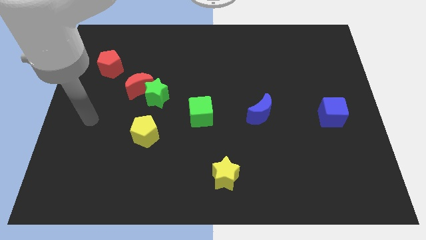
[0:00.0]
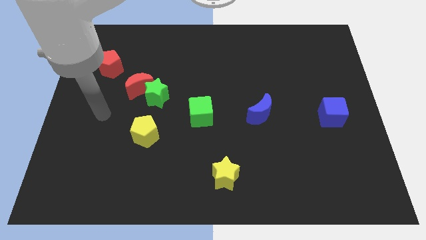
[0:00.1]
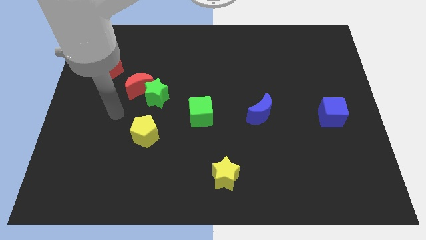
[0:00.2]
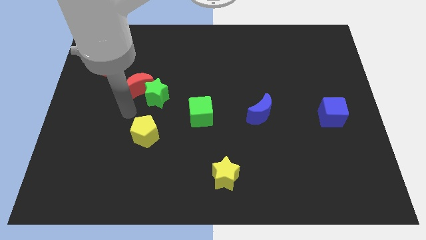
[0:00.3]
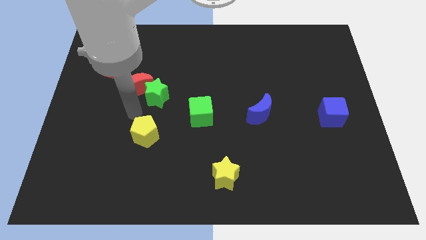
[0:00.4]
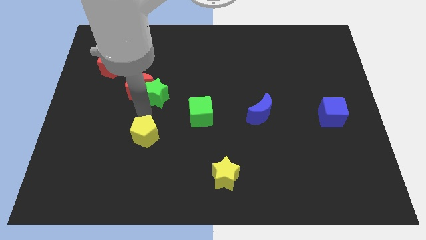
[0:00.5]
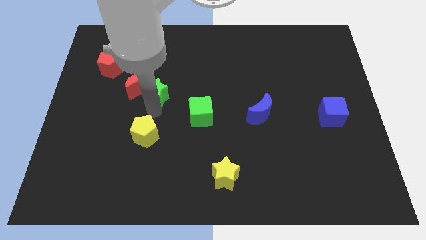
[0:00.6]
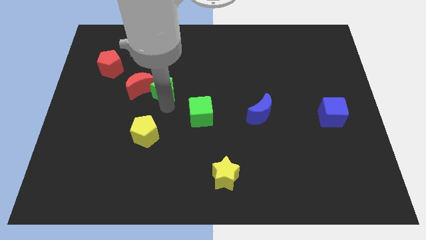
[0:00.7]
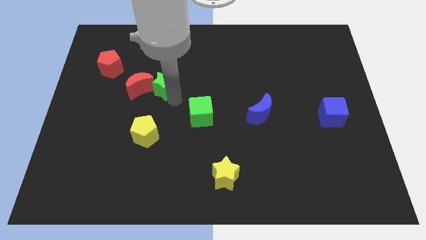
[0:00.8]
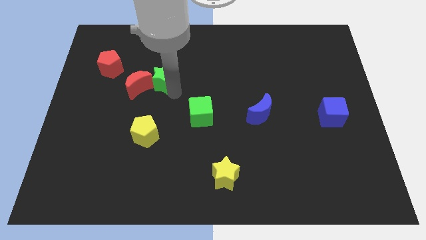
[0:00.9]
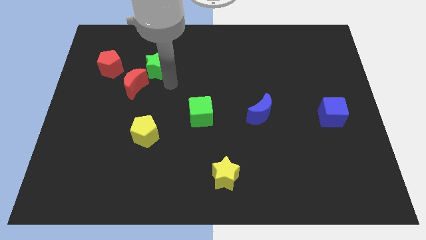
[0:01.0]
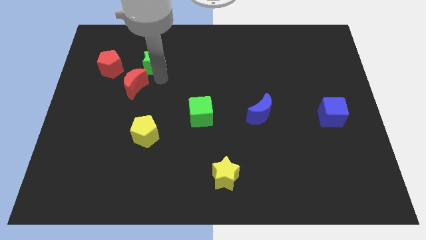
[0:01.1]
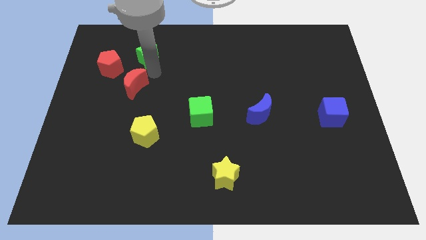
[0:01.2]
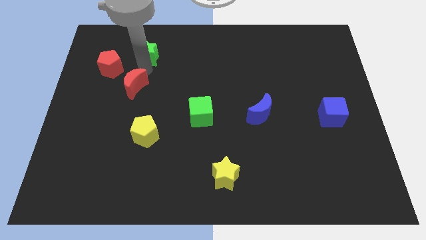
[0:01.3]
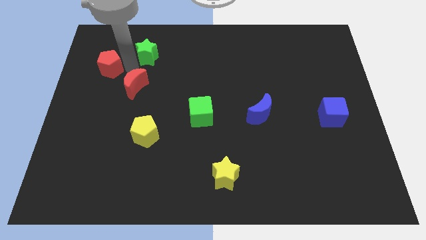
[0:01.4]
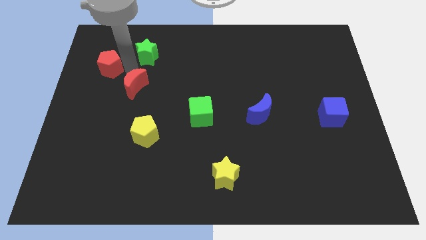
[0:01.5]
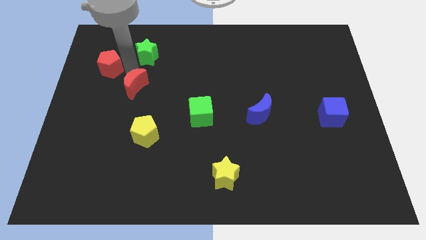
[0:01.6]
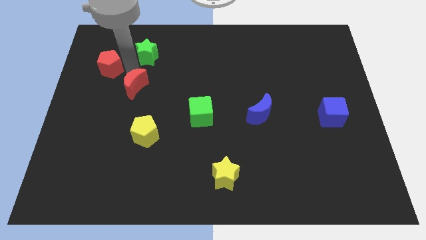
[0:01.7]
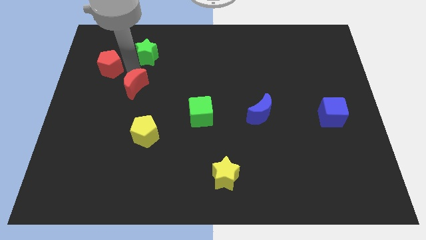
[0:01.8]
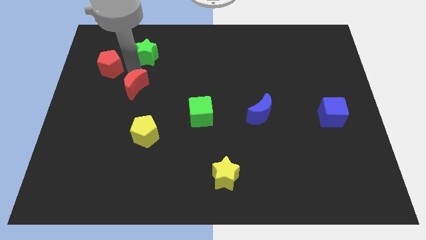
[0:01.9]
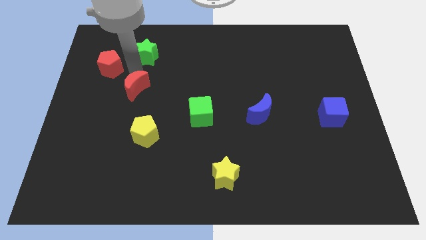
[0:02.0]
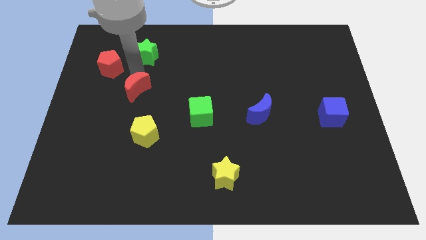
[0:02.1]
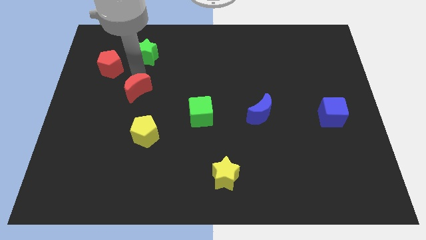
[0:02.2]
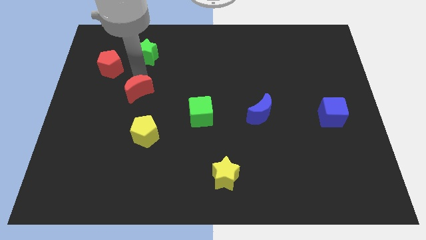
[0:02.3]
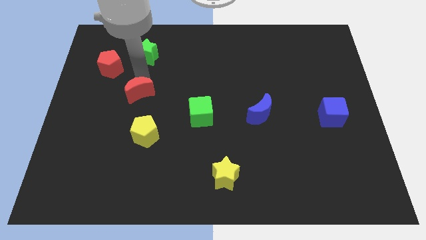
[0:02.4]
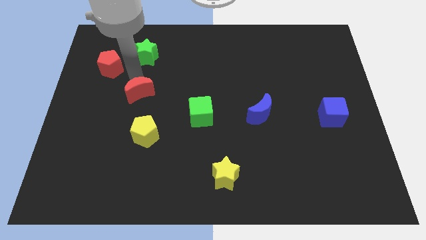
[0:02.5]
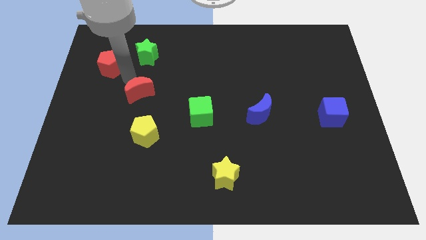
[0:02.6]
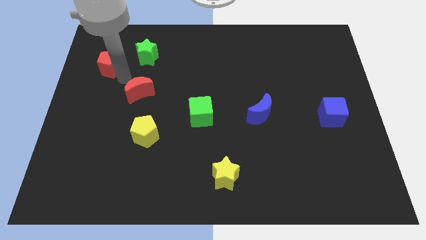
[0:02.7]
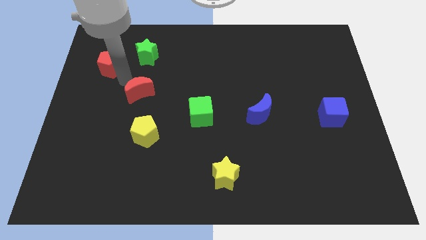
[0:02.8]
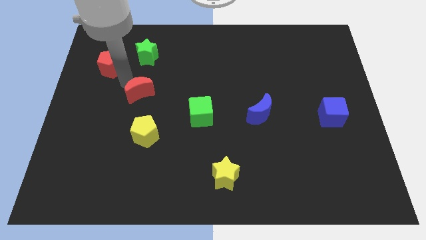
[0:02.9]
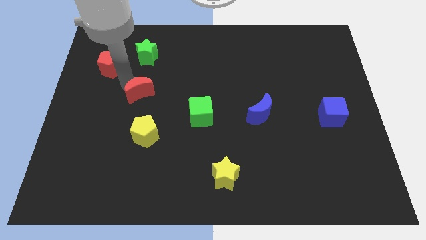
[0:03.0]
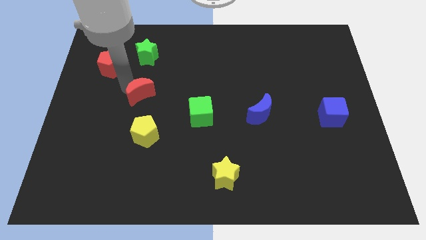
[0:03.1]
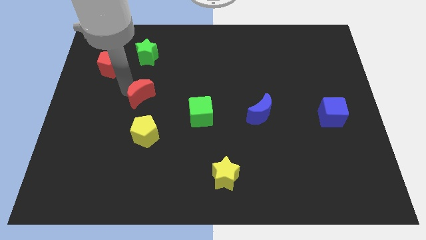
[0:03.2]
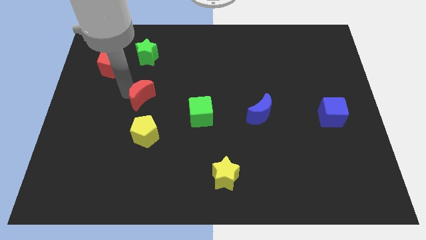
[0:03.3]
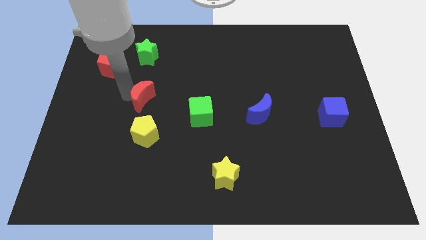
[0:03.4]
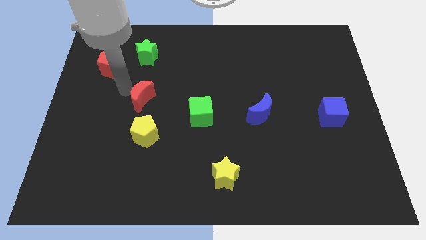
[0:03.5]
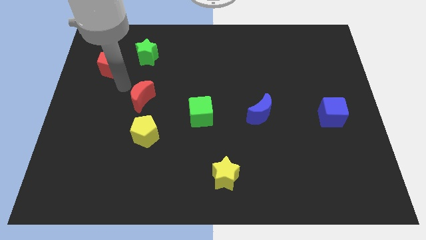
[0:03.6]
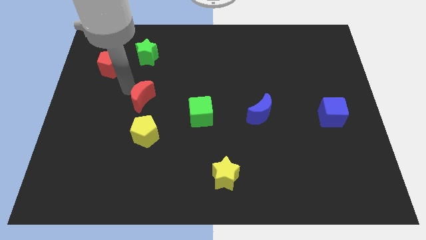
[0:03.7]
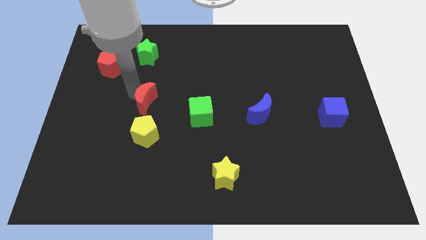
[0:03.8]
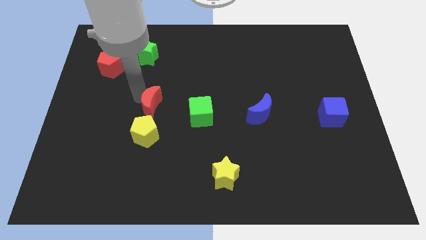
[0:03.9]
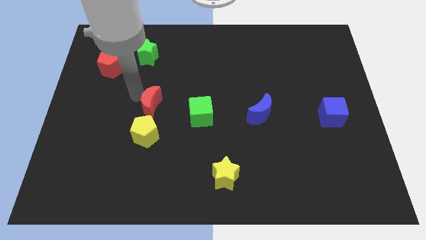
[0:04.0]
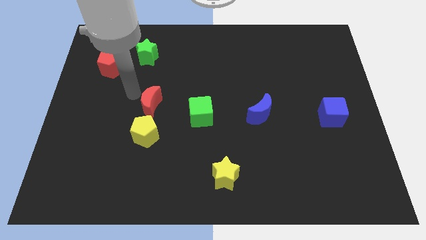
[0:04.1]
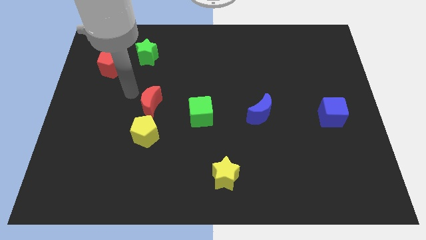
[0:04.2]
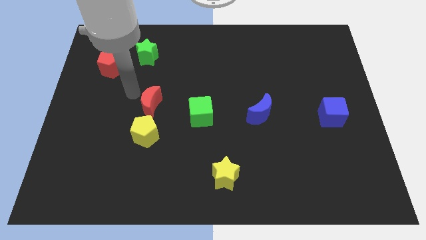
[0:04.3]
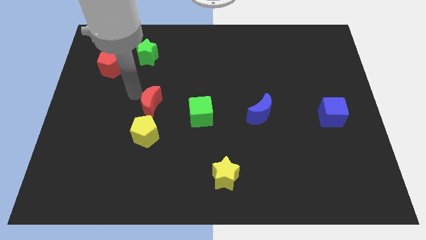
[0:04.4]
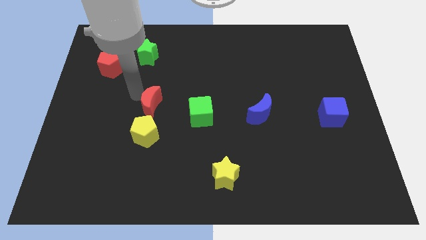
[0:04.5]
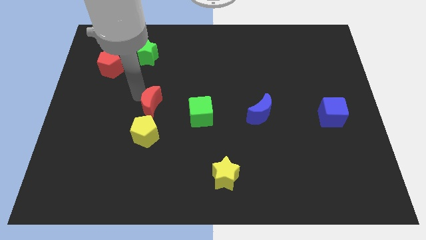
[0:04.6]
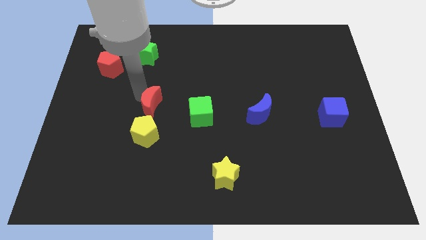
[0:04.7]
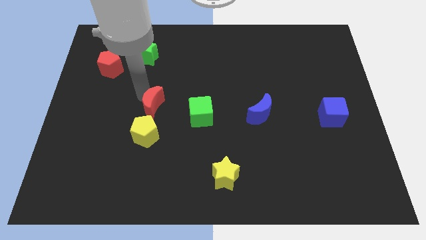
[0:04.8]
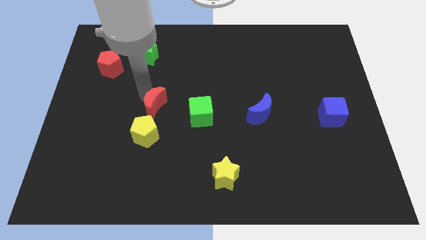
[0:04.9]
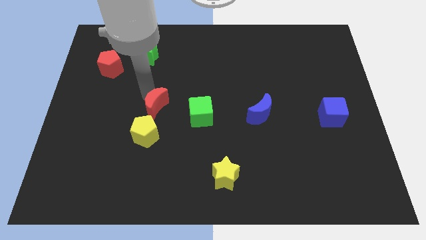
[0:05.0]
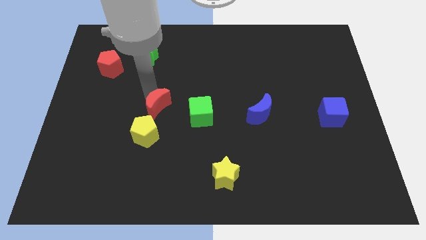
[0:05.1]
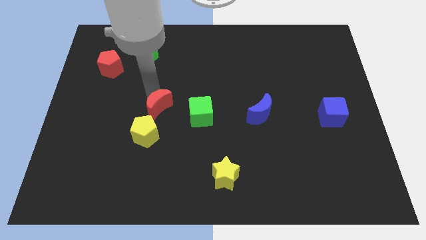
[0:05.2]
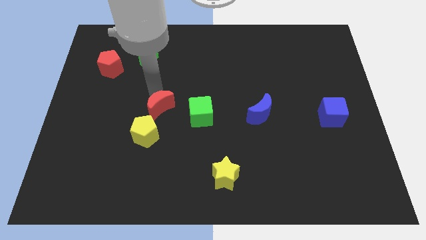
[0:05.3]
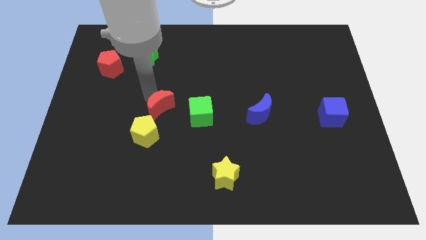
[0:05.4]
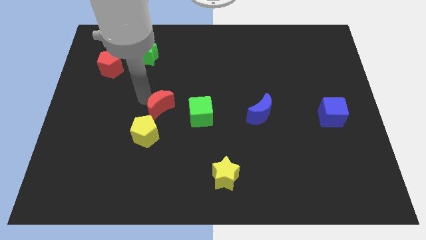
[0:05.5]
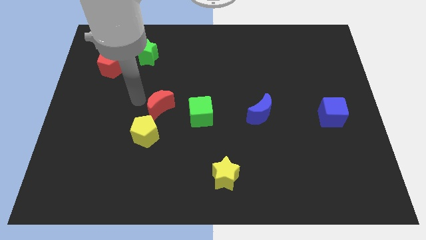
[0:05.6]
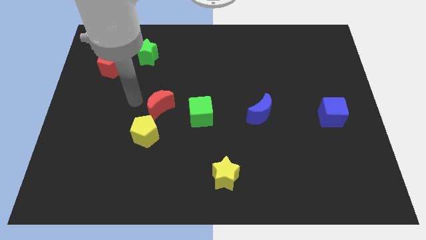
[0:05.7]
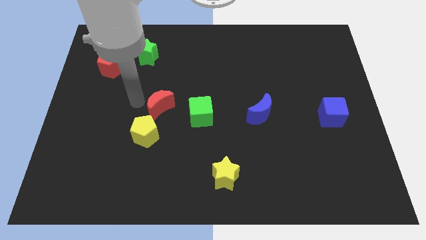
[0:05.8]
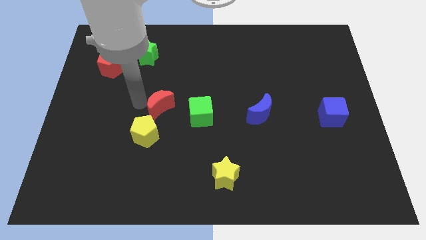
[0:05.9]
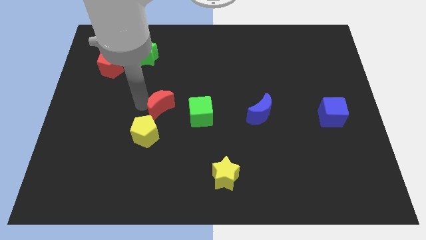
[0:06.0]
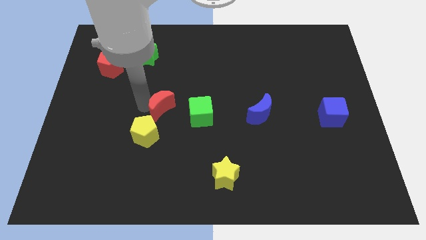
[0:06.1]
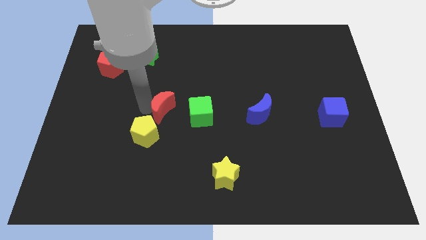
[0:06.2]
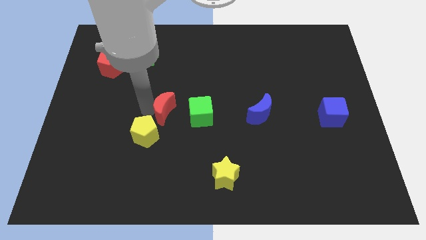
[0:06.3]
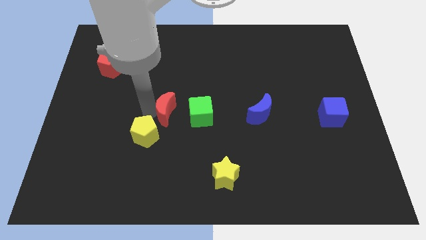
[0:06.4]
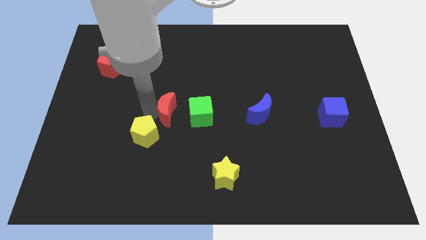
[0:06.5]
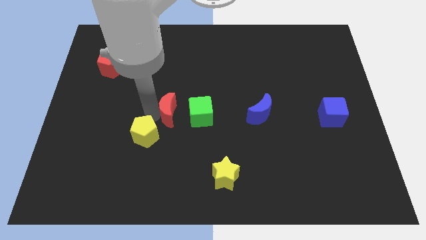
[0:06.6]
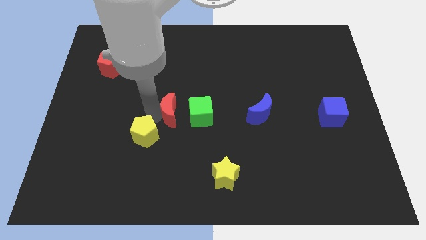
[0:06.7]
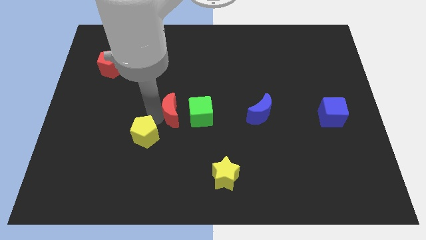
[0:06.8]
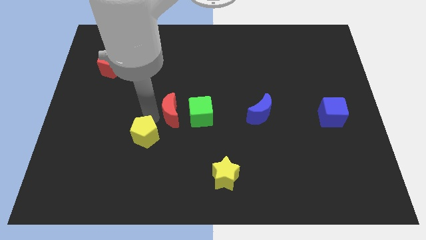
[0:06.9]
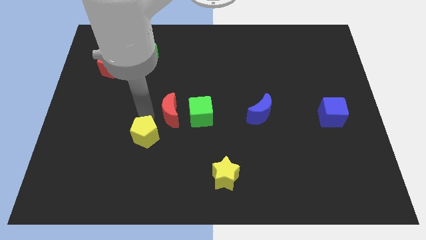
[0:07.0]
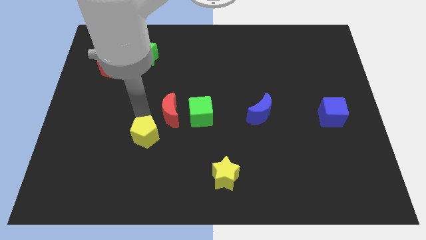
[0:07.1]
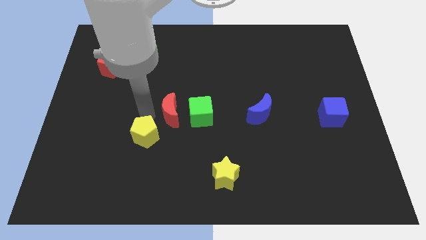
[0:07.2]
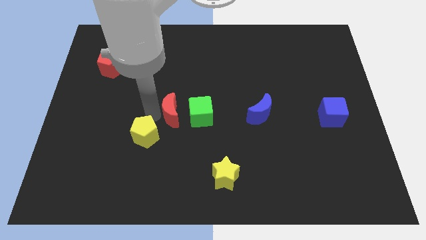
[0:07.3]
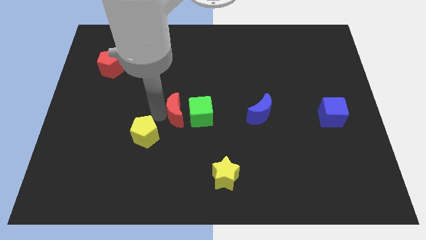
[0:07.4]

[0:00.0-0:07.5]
move the red moon to the green cube
